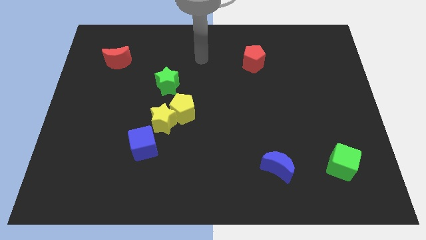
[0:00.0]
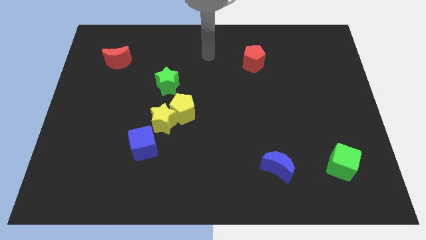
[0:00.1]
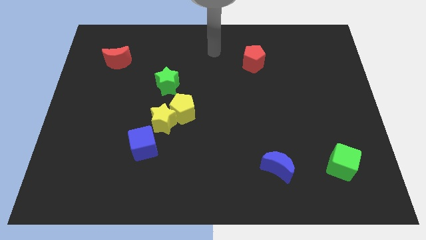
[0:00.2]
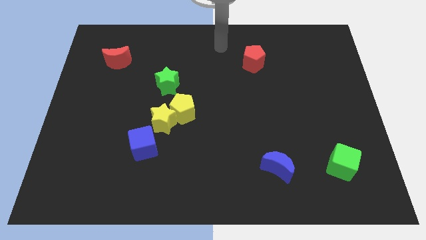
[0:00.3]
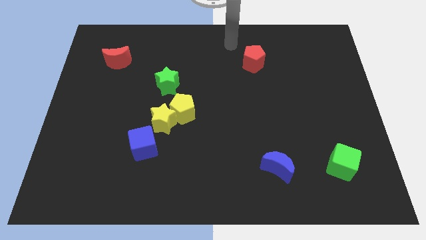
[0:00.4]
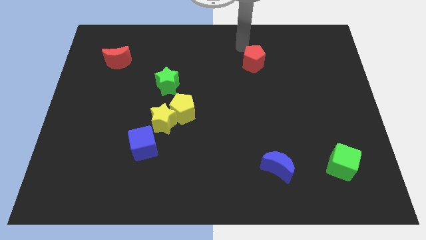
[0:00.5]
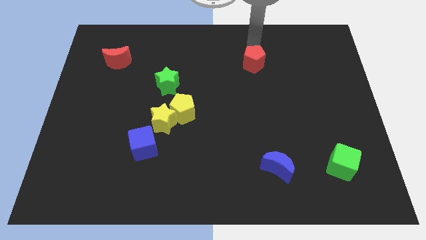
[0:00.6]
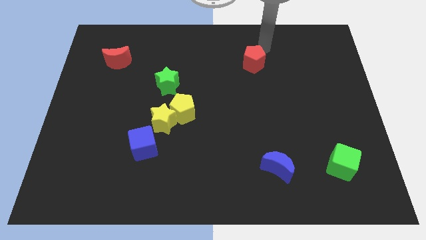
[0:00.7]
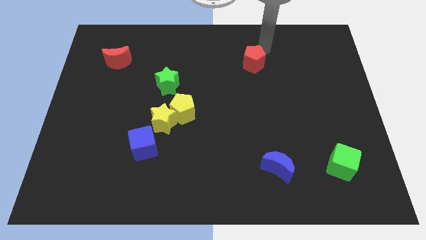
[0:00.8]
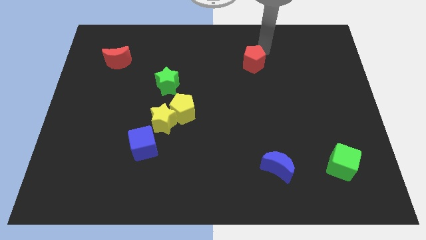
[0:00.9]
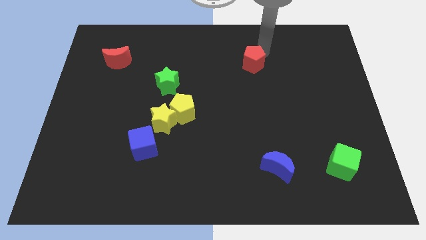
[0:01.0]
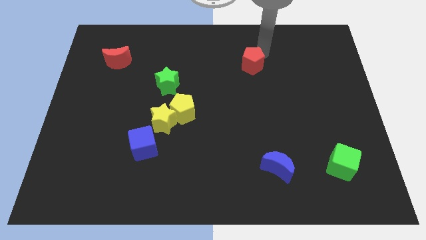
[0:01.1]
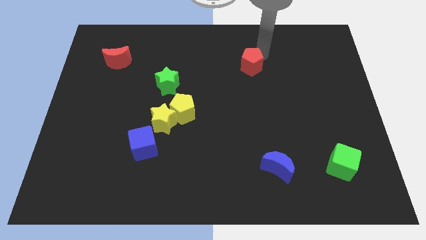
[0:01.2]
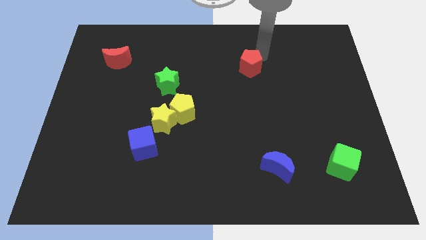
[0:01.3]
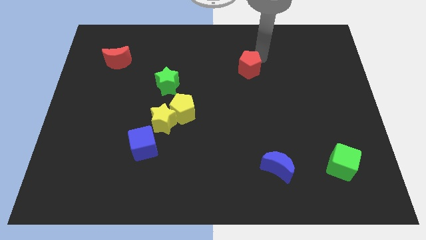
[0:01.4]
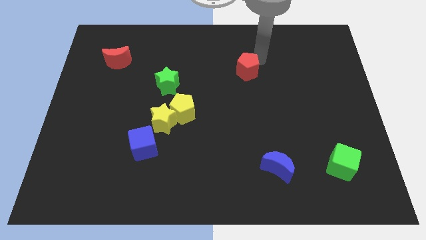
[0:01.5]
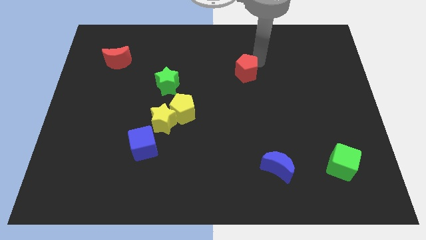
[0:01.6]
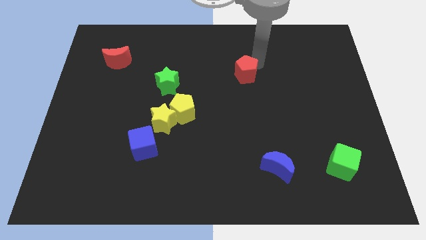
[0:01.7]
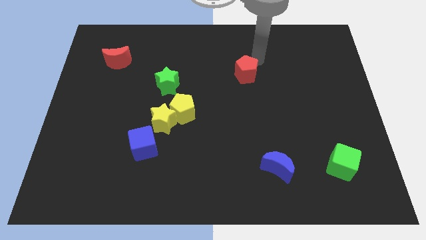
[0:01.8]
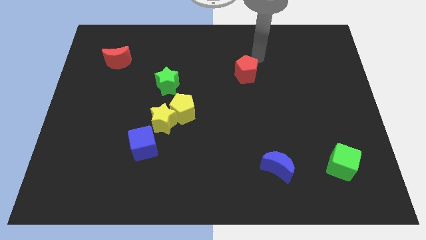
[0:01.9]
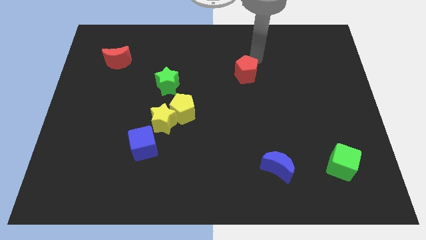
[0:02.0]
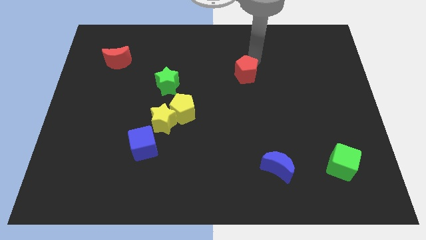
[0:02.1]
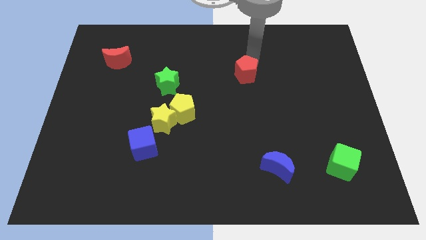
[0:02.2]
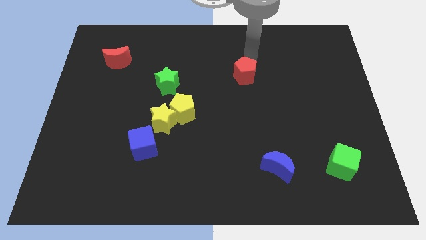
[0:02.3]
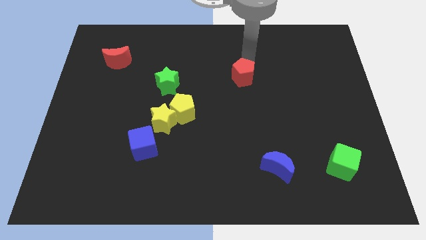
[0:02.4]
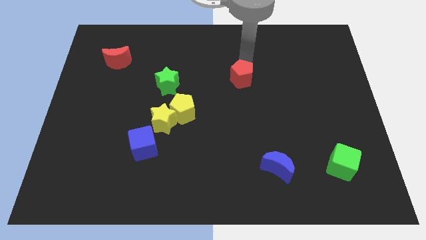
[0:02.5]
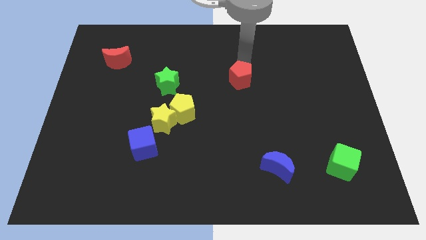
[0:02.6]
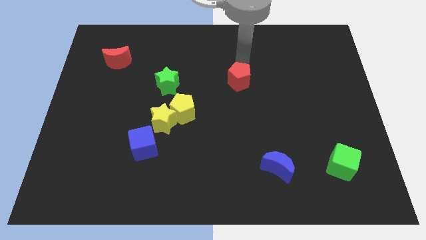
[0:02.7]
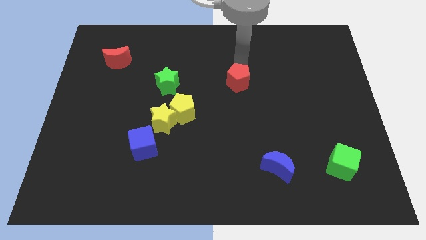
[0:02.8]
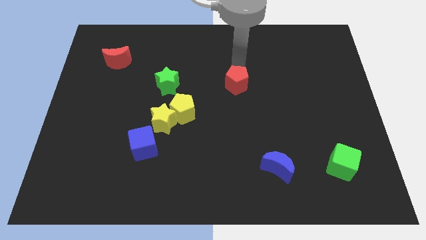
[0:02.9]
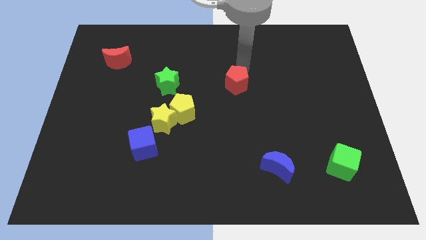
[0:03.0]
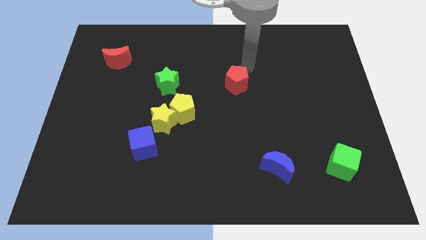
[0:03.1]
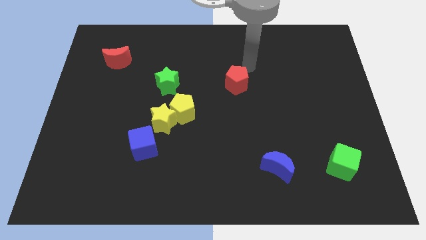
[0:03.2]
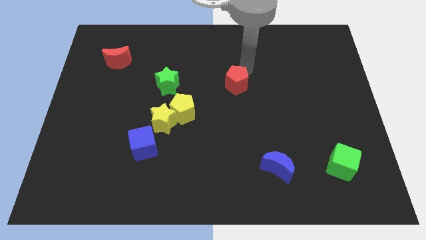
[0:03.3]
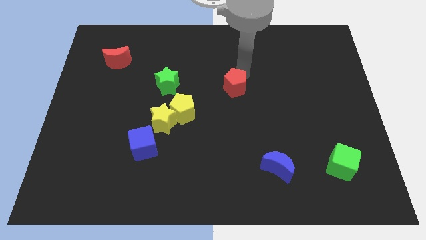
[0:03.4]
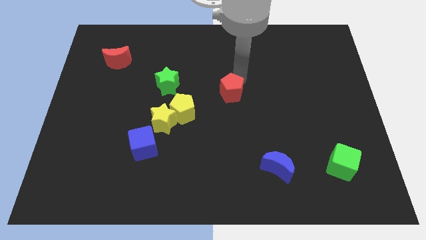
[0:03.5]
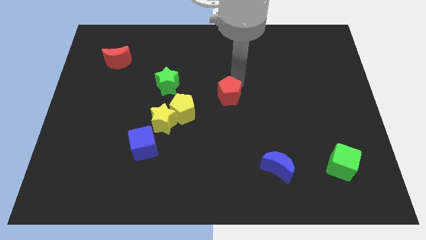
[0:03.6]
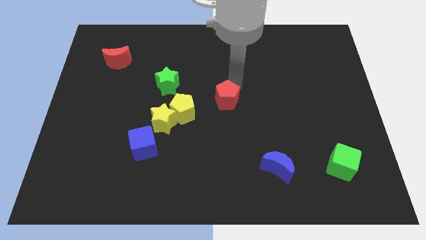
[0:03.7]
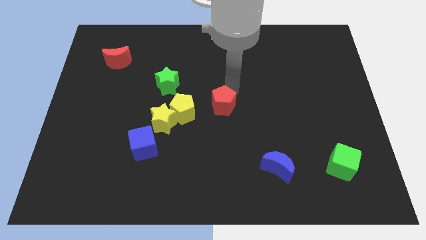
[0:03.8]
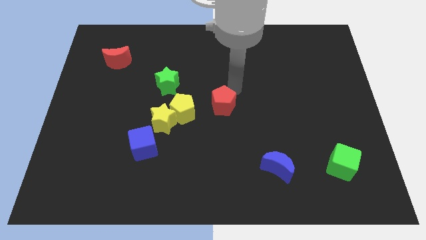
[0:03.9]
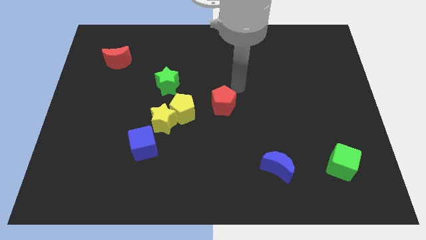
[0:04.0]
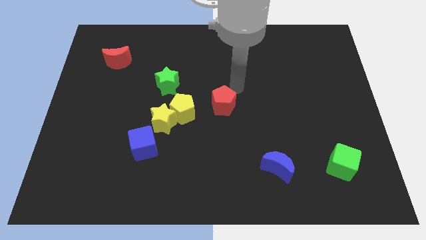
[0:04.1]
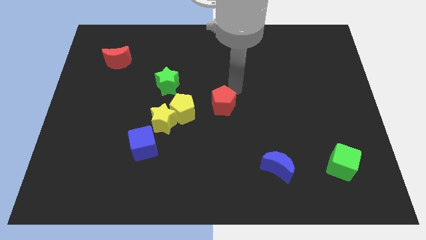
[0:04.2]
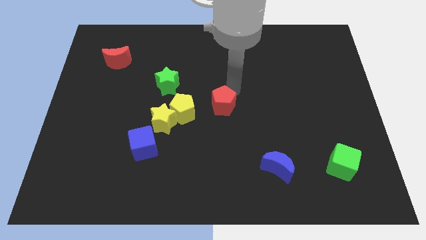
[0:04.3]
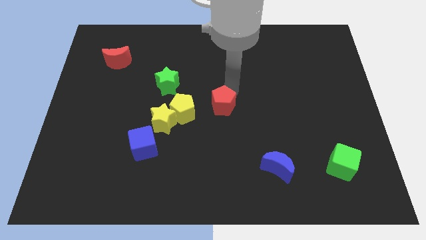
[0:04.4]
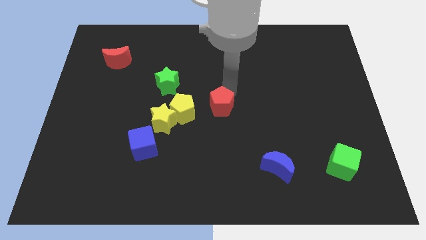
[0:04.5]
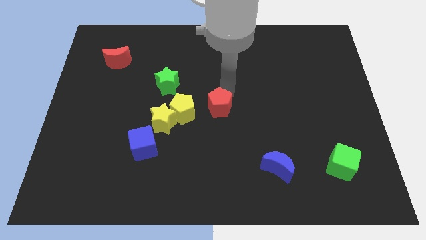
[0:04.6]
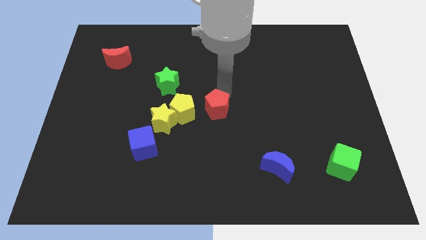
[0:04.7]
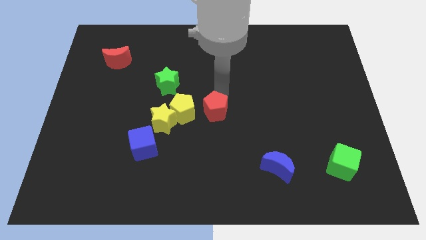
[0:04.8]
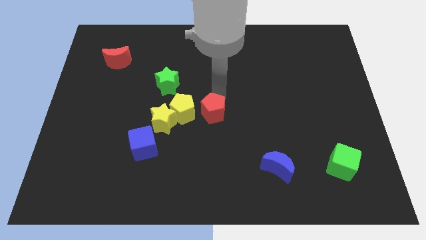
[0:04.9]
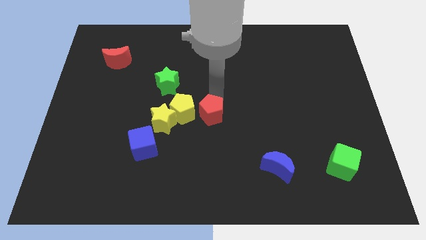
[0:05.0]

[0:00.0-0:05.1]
slide the red pentagon to the bottom right side of the yellow pentagon

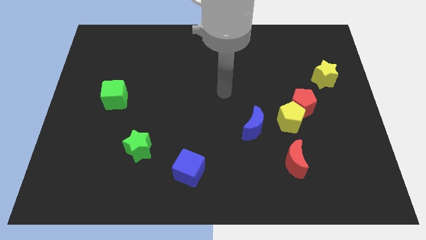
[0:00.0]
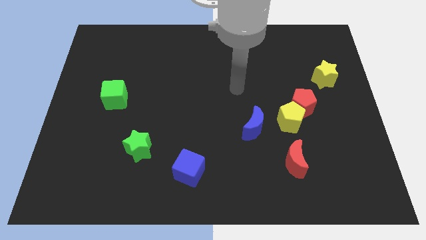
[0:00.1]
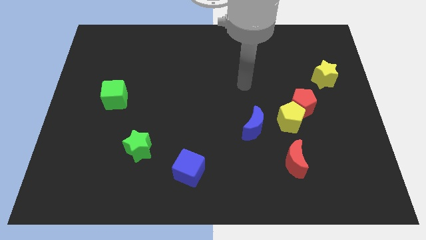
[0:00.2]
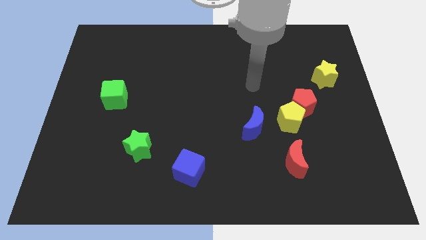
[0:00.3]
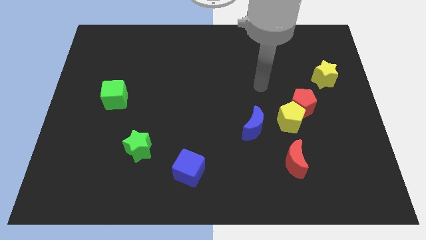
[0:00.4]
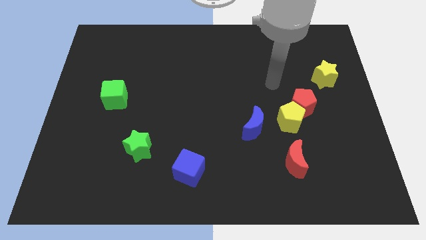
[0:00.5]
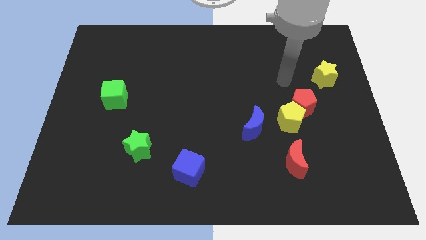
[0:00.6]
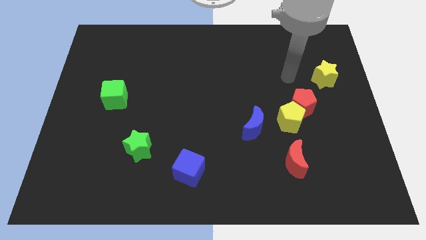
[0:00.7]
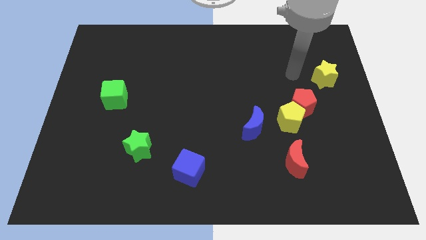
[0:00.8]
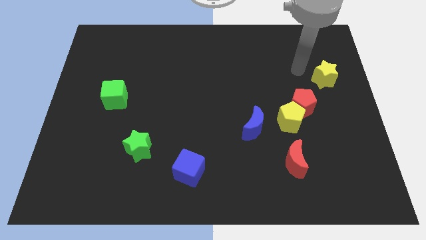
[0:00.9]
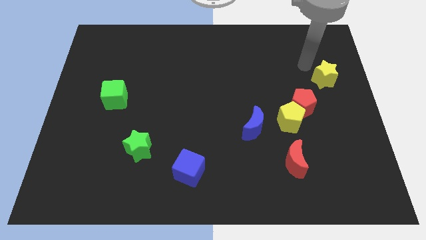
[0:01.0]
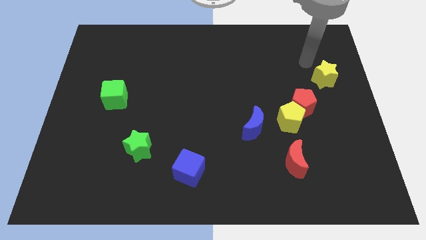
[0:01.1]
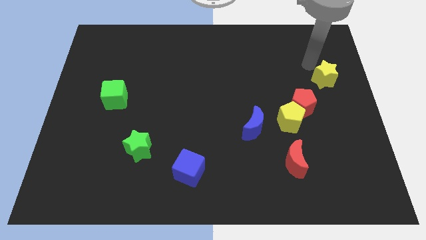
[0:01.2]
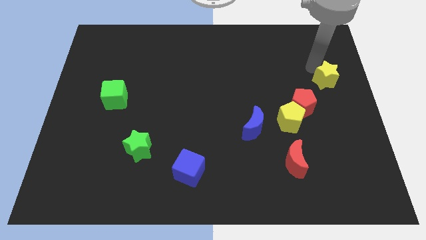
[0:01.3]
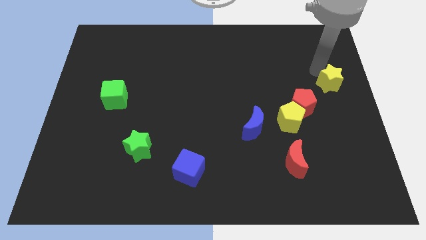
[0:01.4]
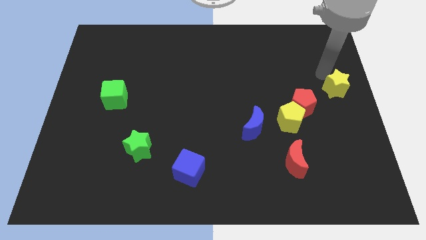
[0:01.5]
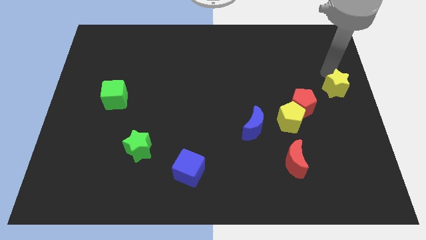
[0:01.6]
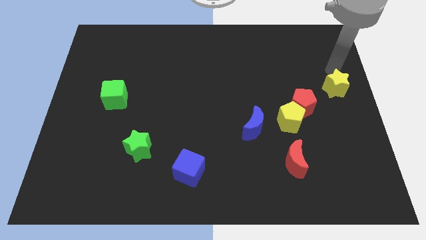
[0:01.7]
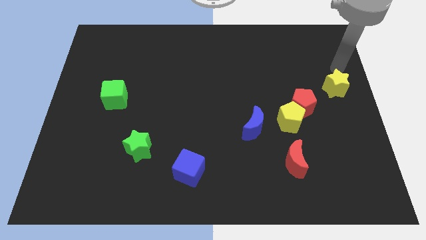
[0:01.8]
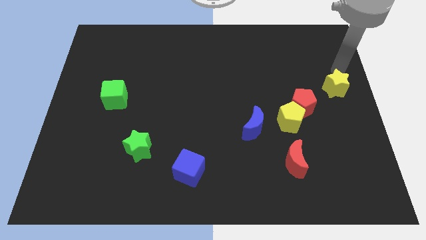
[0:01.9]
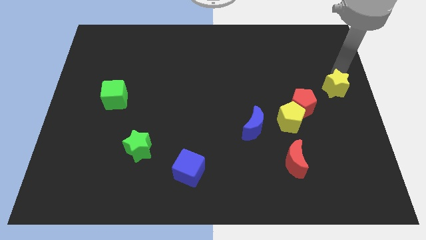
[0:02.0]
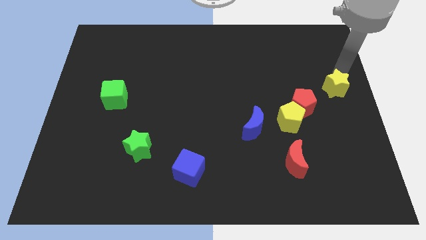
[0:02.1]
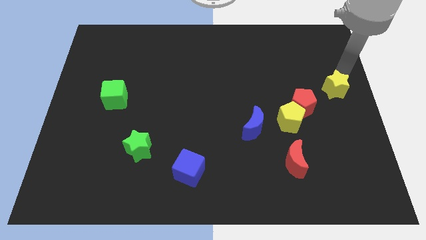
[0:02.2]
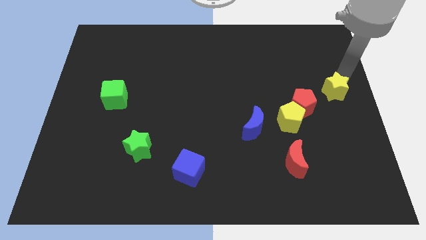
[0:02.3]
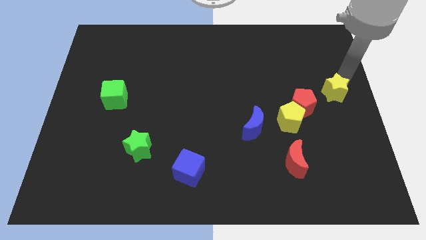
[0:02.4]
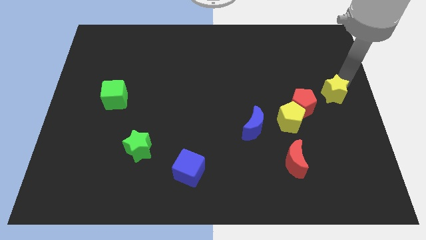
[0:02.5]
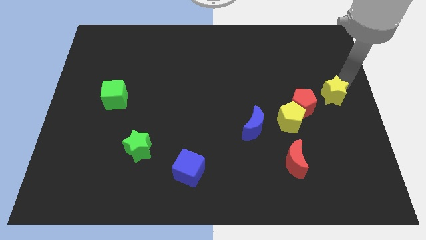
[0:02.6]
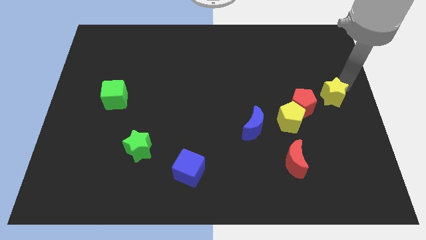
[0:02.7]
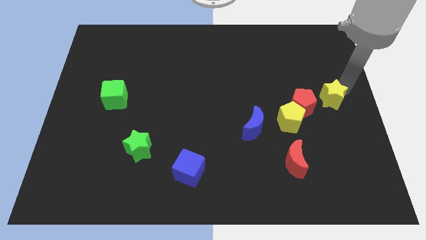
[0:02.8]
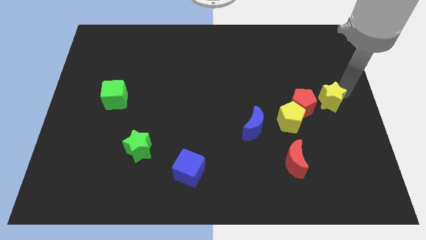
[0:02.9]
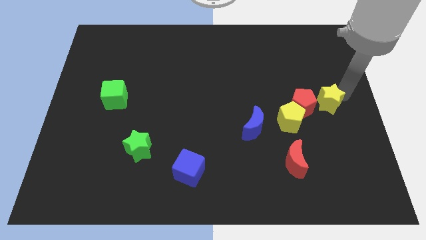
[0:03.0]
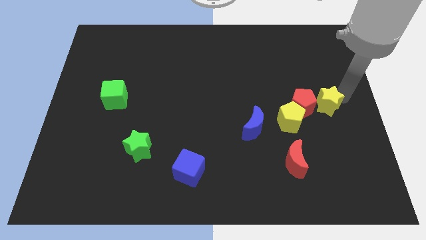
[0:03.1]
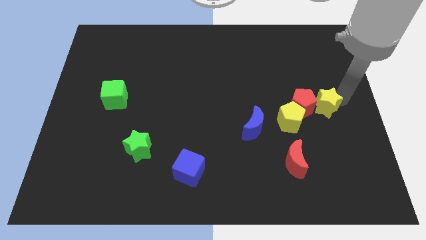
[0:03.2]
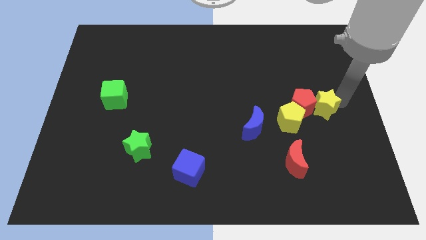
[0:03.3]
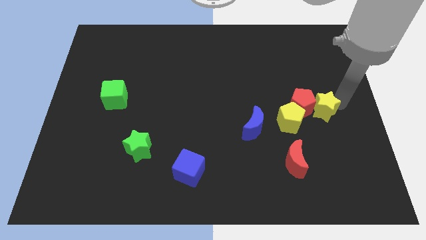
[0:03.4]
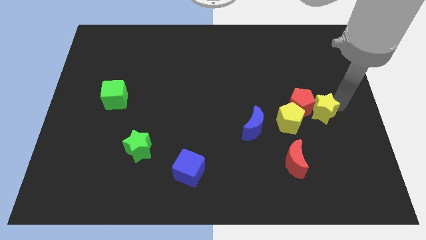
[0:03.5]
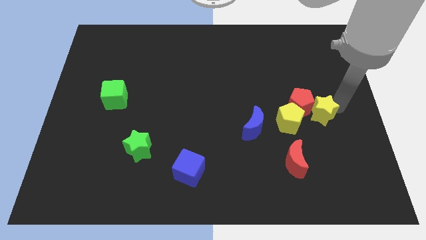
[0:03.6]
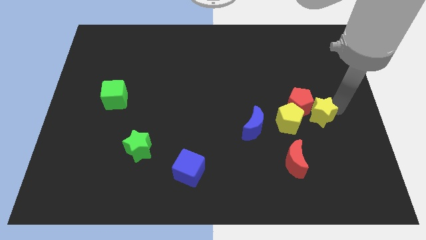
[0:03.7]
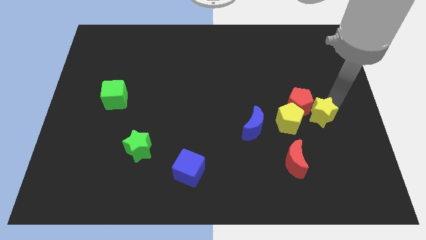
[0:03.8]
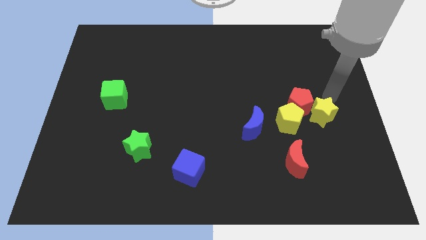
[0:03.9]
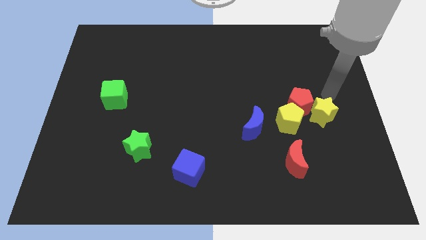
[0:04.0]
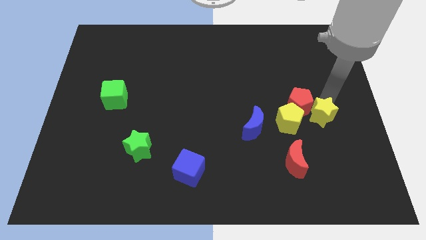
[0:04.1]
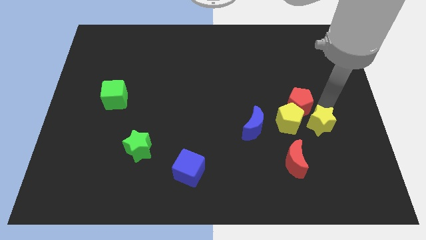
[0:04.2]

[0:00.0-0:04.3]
move the yellow star to the top right side of the red moon
